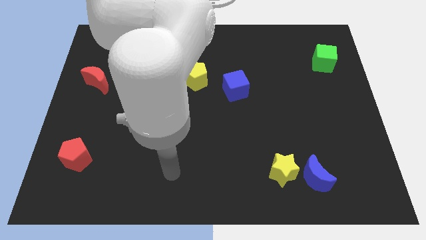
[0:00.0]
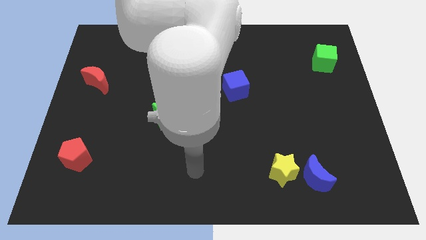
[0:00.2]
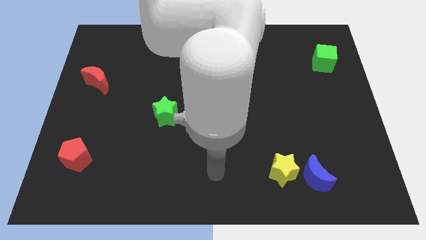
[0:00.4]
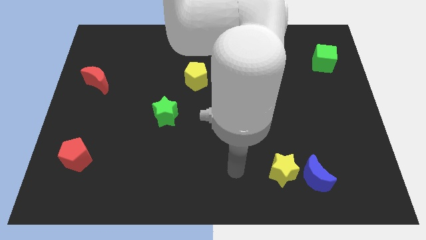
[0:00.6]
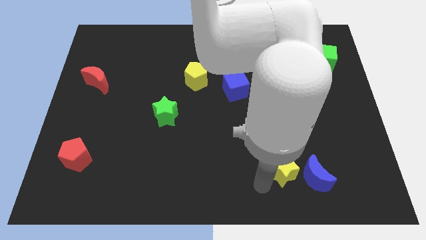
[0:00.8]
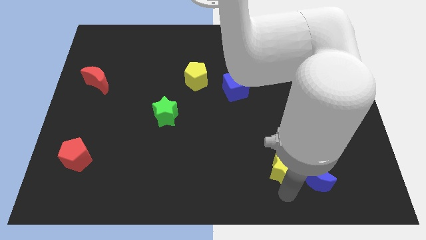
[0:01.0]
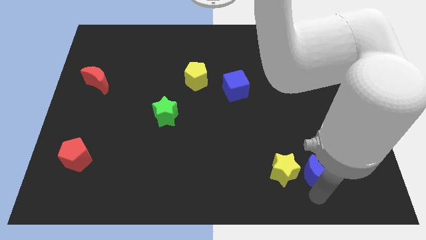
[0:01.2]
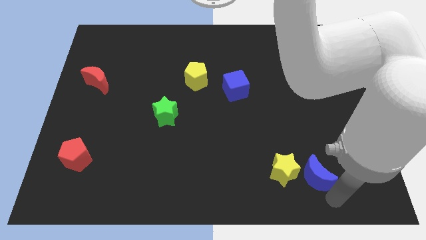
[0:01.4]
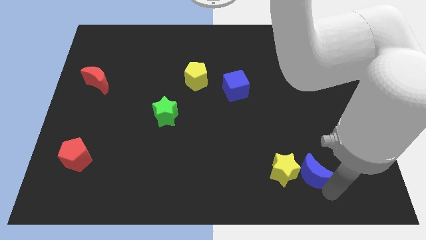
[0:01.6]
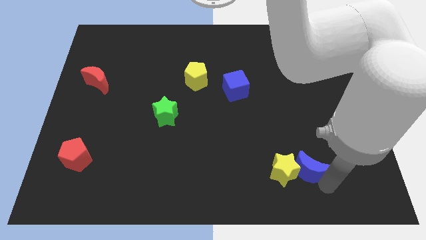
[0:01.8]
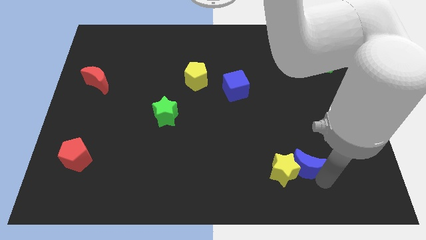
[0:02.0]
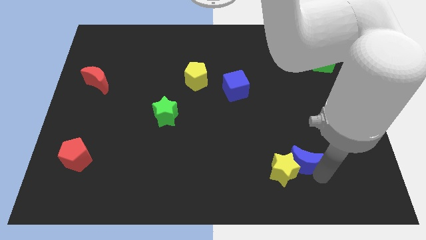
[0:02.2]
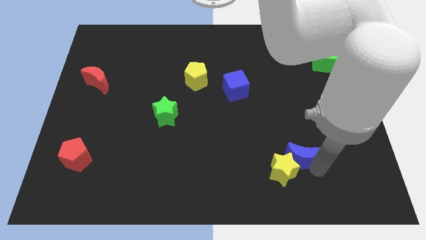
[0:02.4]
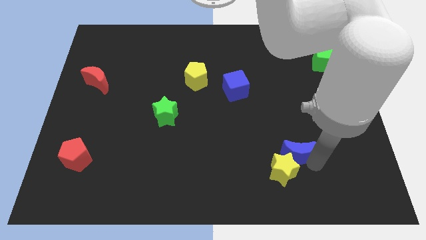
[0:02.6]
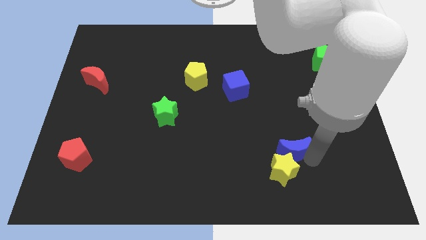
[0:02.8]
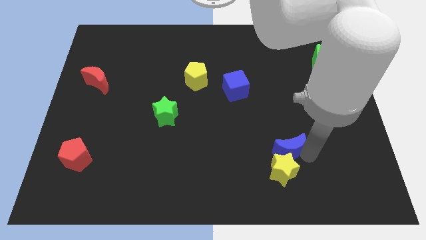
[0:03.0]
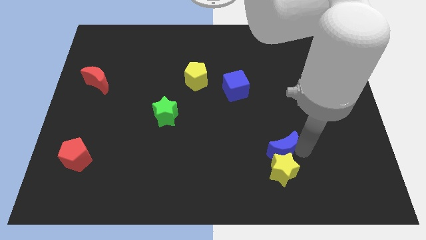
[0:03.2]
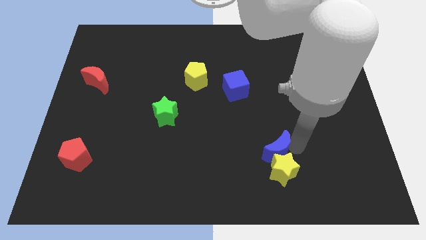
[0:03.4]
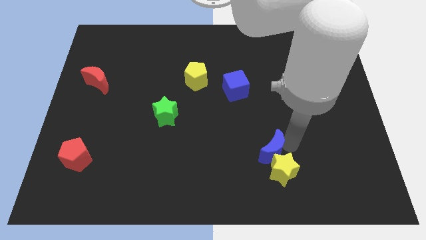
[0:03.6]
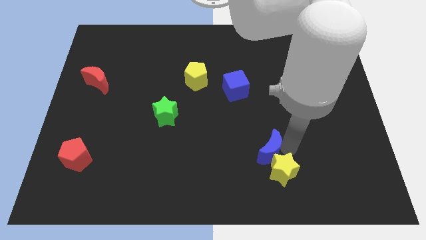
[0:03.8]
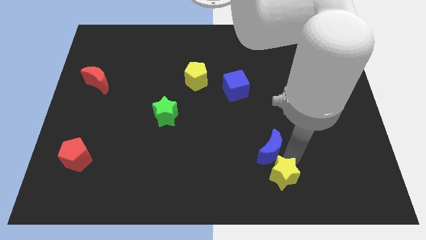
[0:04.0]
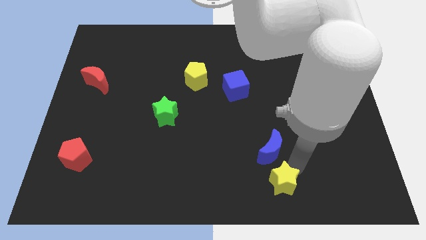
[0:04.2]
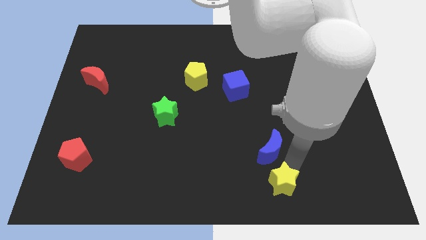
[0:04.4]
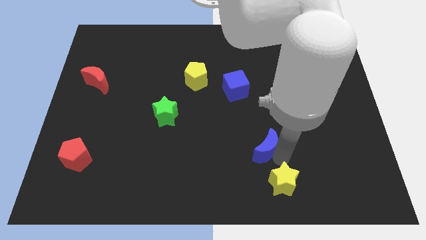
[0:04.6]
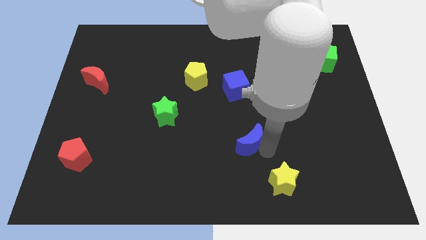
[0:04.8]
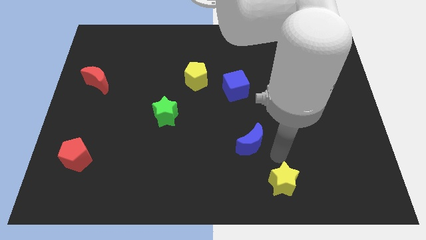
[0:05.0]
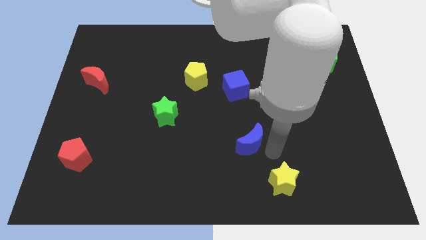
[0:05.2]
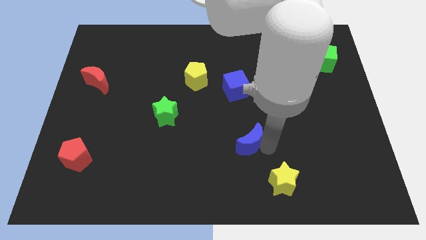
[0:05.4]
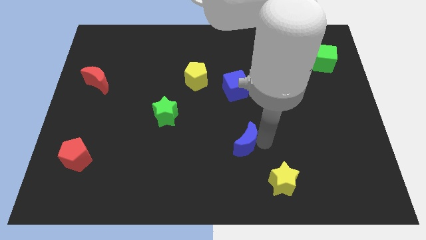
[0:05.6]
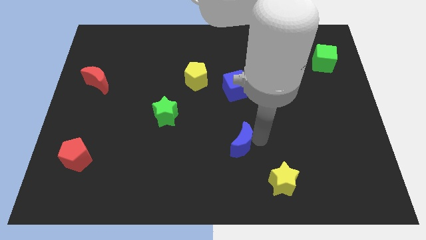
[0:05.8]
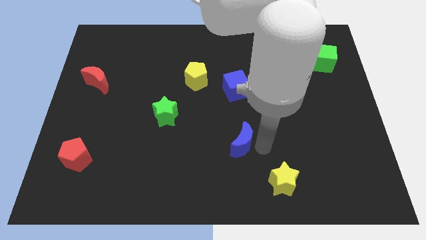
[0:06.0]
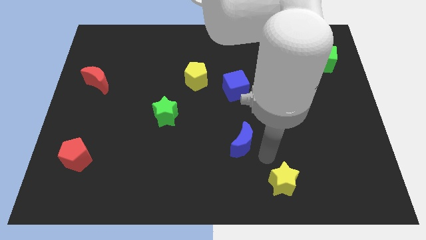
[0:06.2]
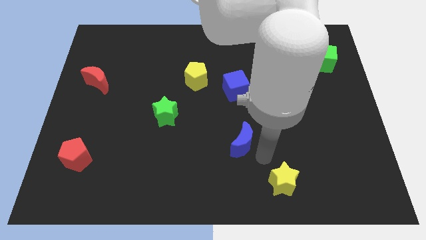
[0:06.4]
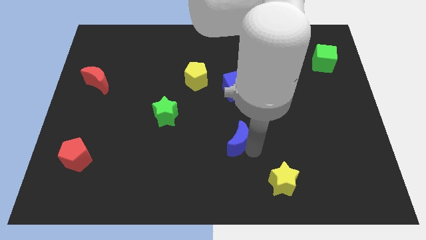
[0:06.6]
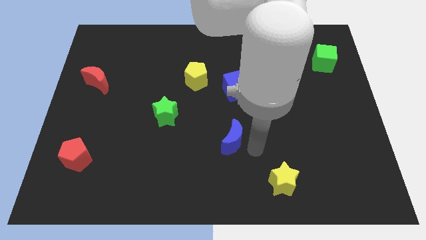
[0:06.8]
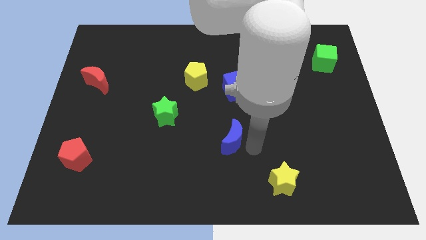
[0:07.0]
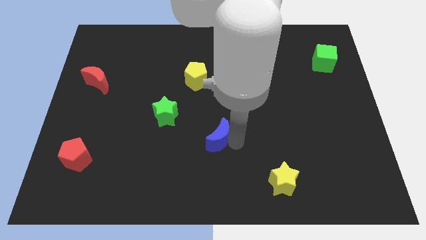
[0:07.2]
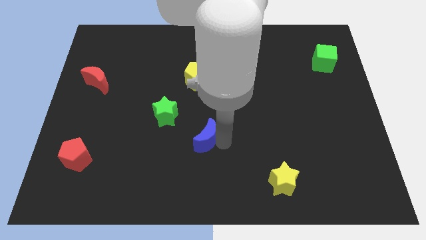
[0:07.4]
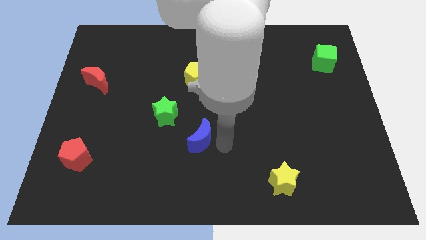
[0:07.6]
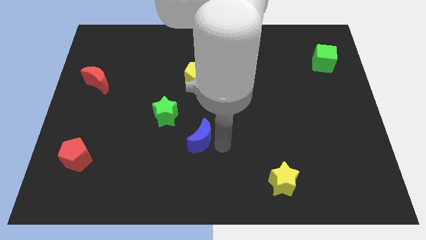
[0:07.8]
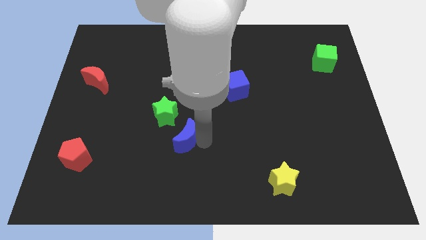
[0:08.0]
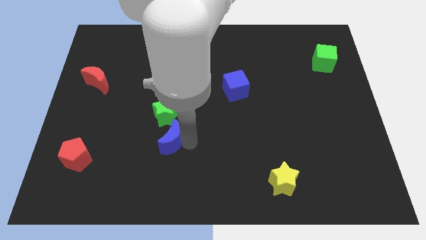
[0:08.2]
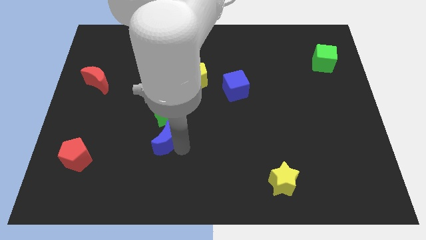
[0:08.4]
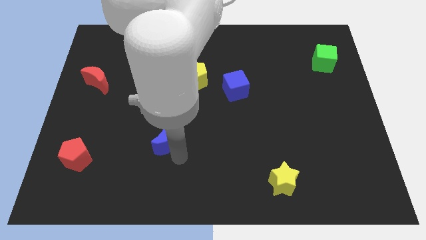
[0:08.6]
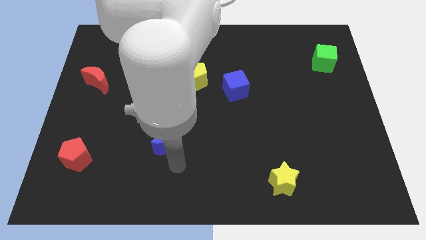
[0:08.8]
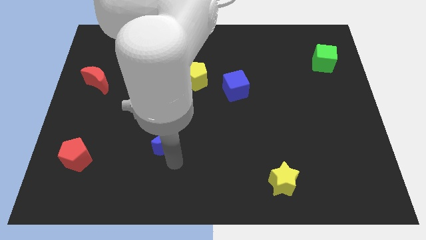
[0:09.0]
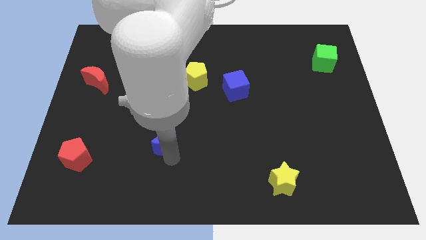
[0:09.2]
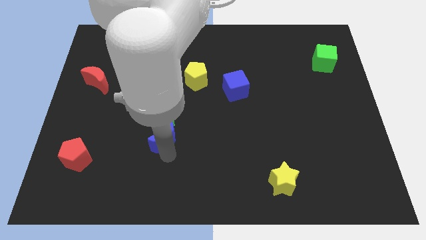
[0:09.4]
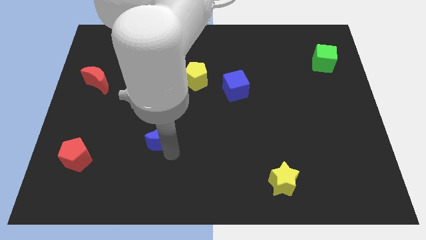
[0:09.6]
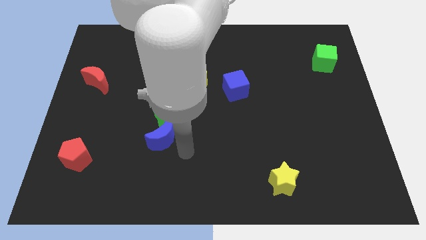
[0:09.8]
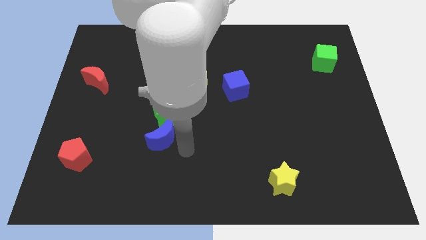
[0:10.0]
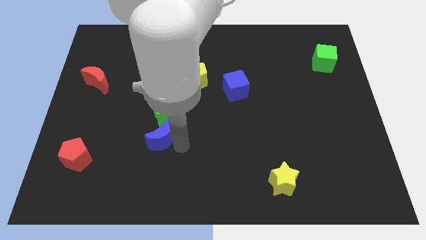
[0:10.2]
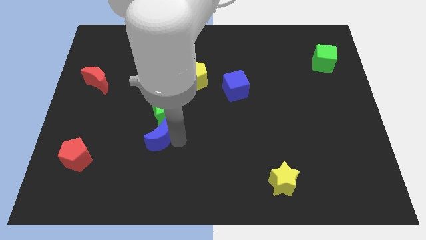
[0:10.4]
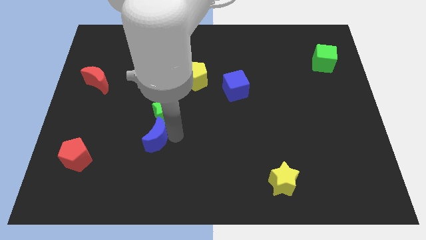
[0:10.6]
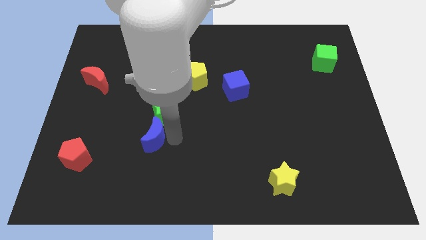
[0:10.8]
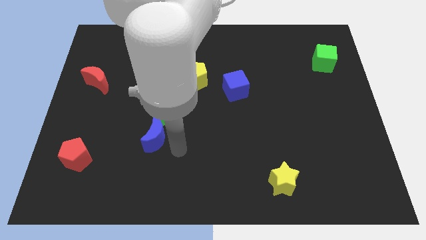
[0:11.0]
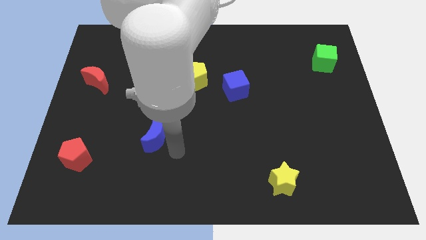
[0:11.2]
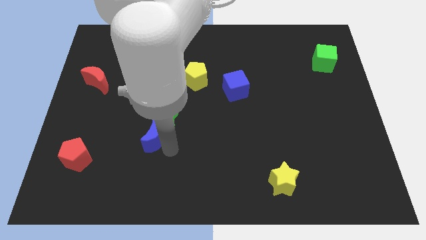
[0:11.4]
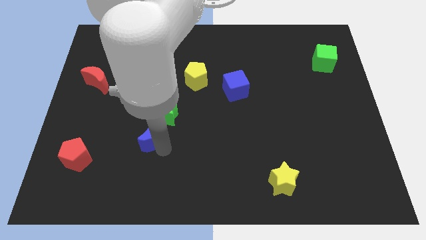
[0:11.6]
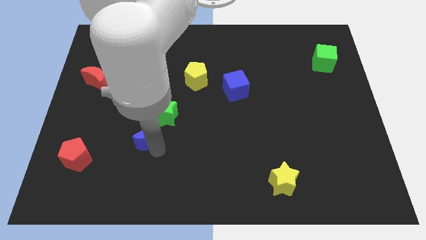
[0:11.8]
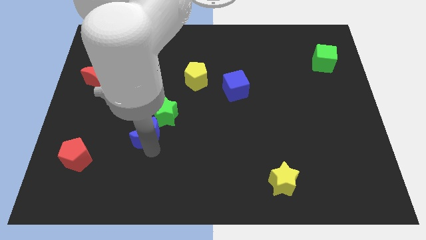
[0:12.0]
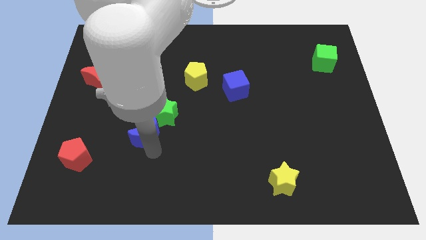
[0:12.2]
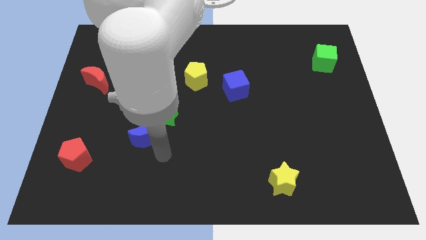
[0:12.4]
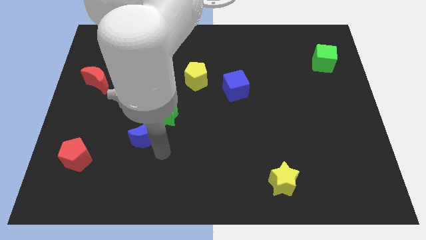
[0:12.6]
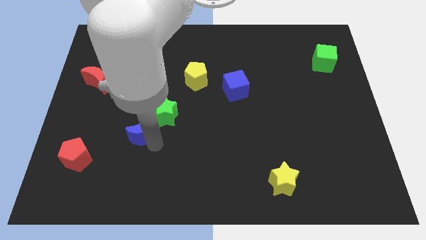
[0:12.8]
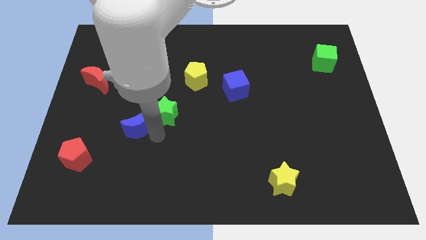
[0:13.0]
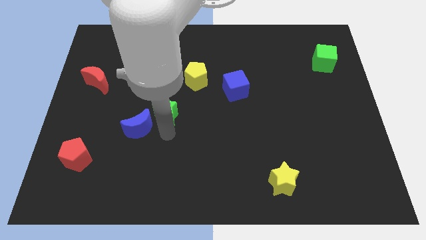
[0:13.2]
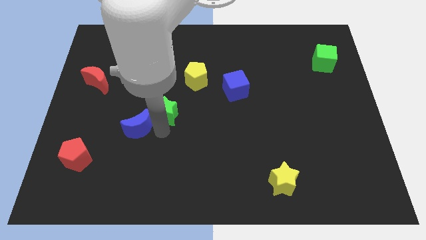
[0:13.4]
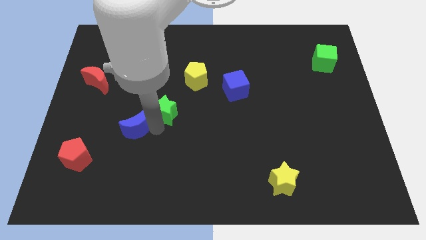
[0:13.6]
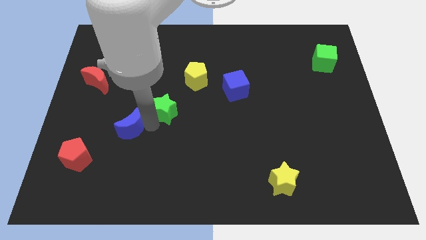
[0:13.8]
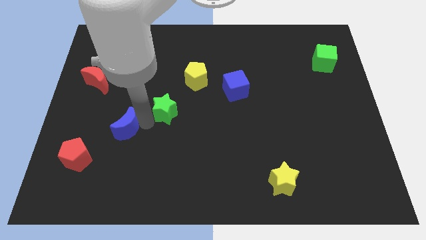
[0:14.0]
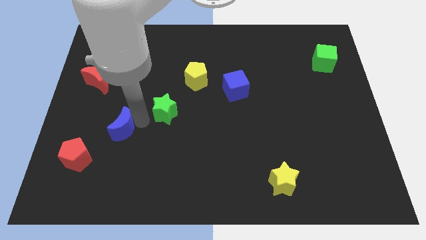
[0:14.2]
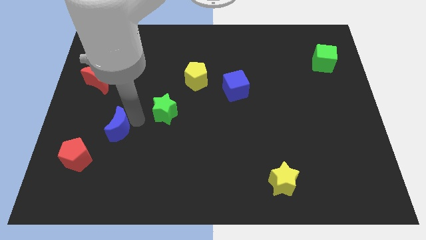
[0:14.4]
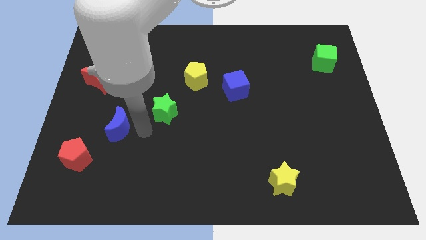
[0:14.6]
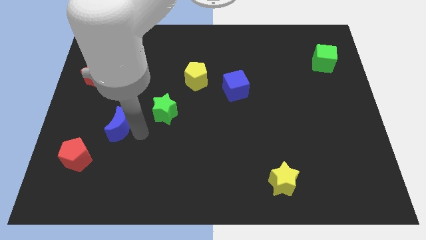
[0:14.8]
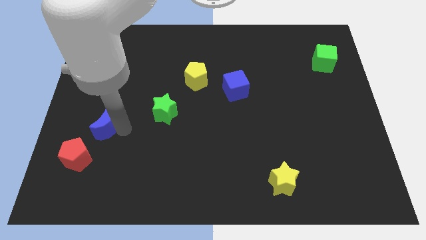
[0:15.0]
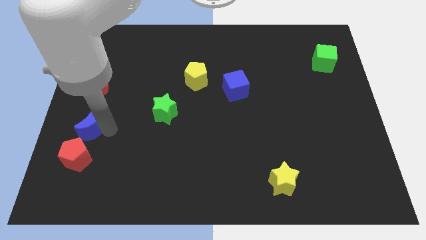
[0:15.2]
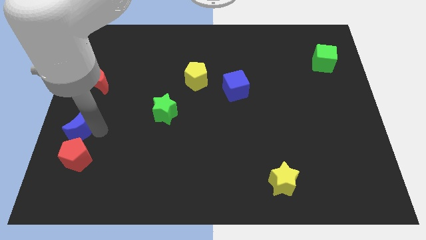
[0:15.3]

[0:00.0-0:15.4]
put the blue moon to the left side
